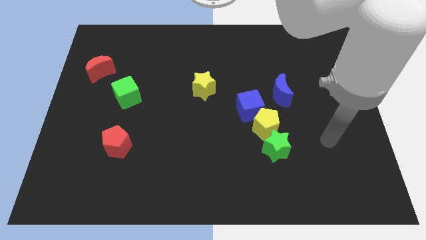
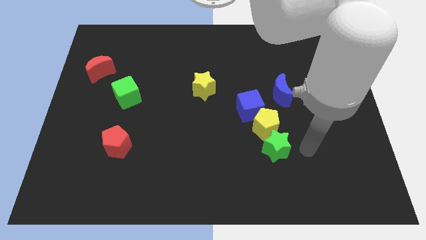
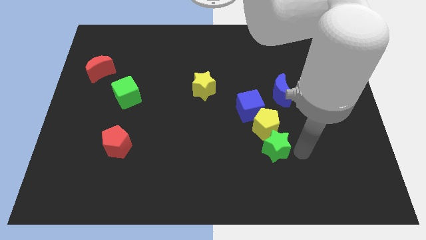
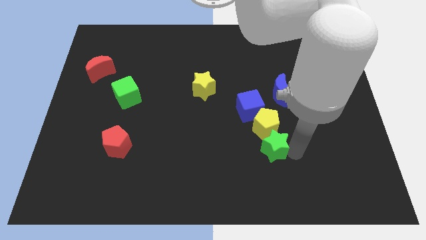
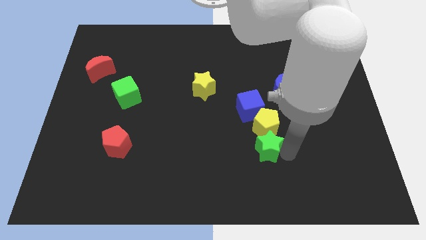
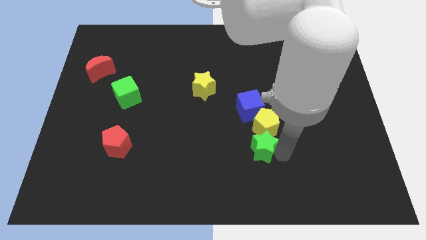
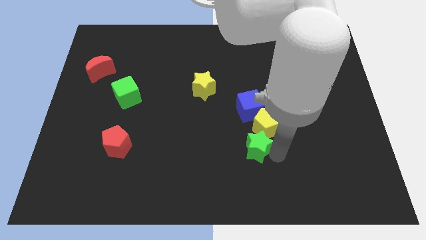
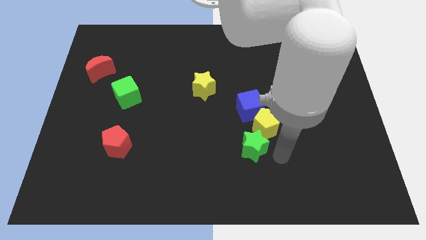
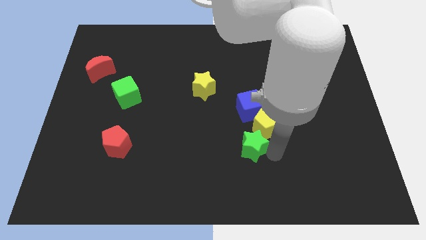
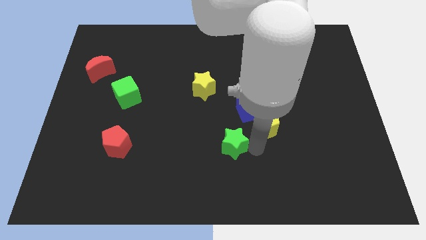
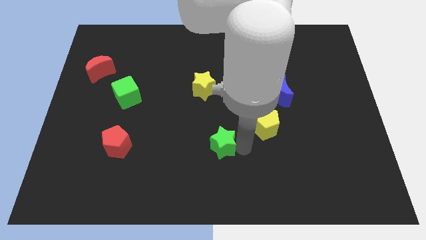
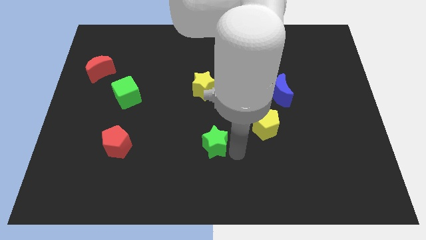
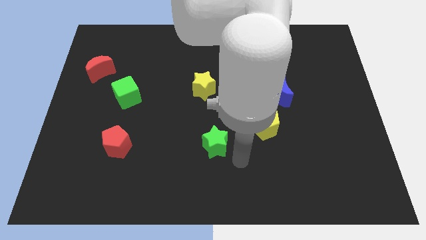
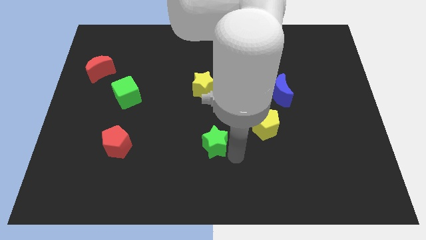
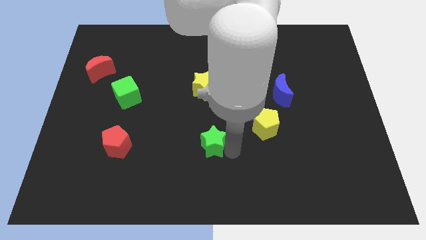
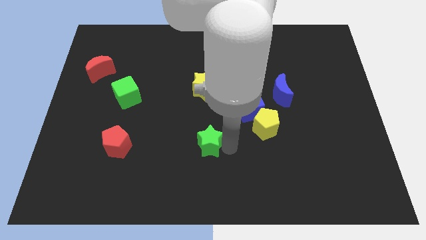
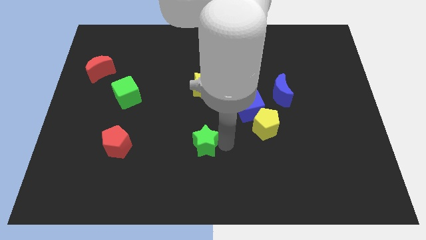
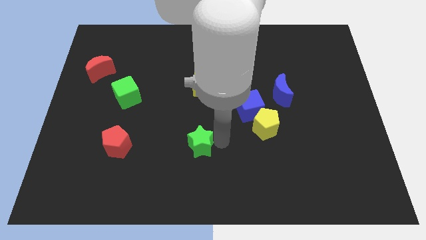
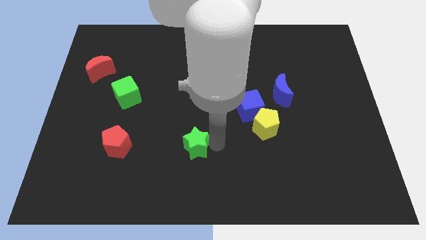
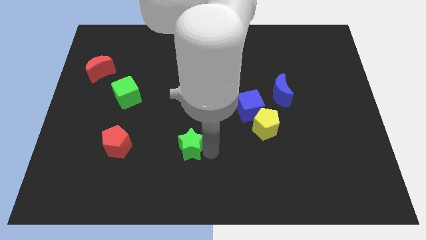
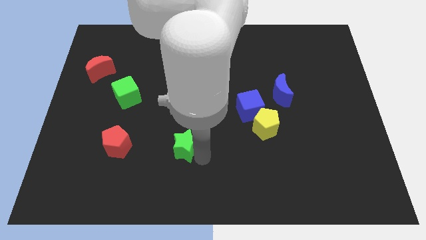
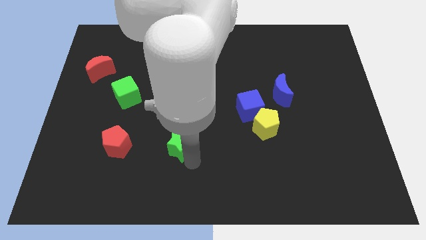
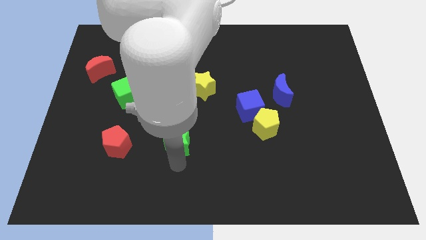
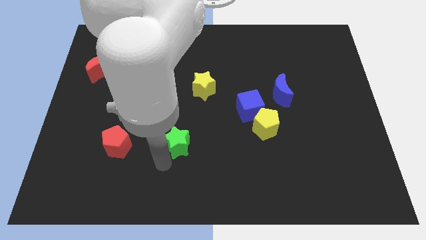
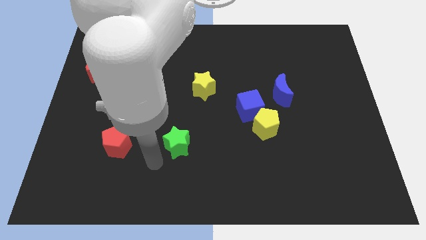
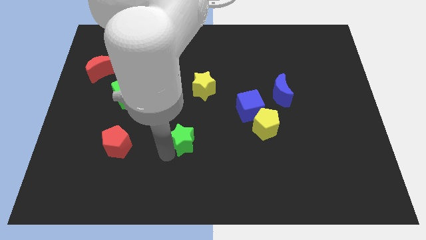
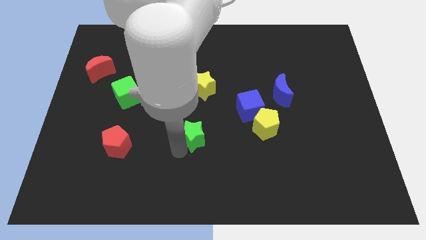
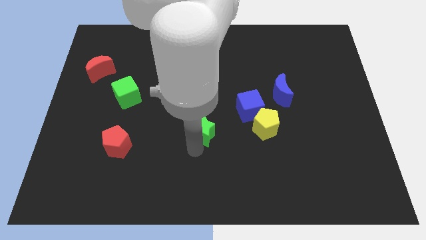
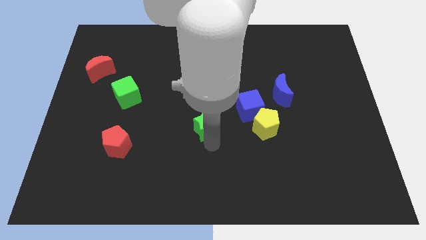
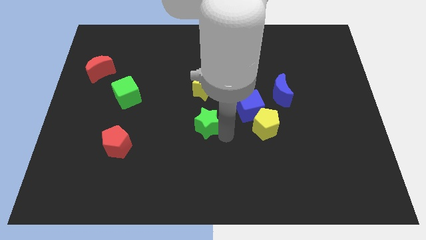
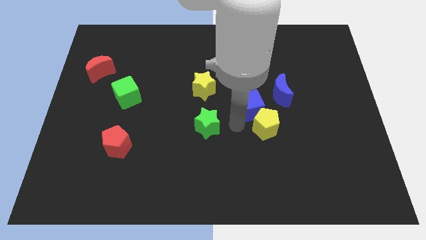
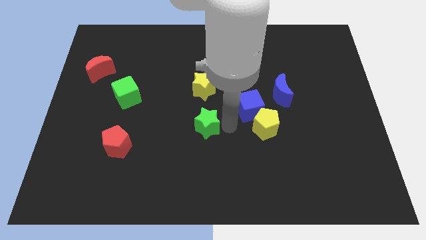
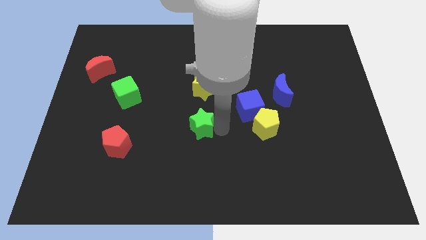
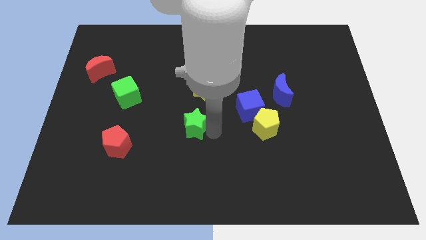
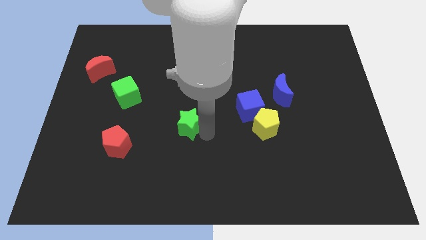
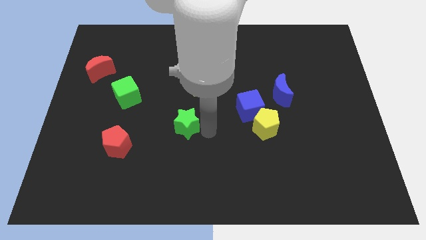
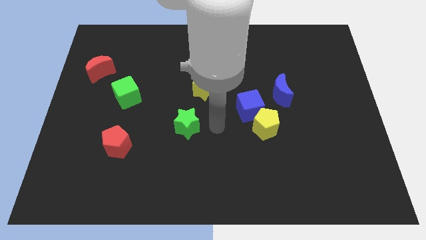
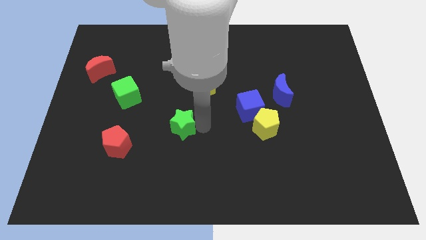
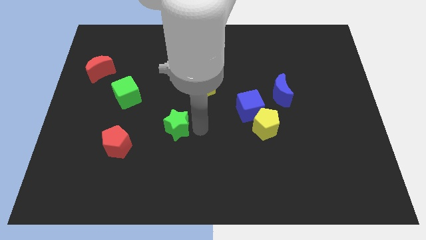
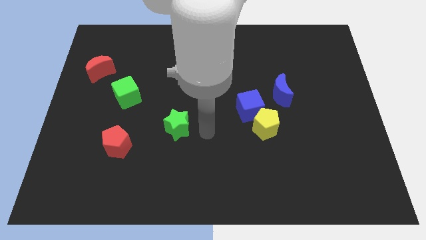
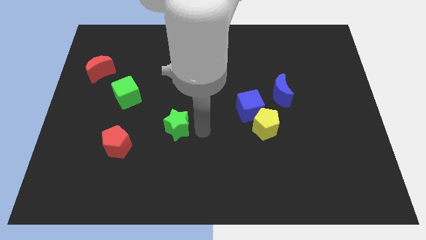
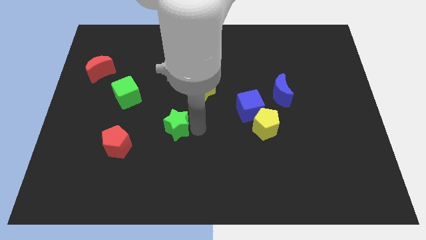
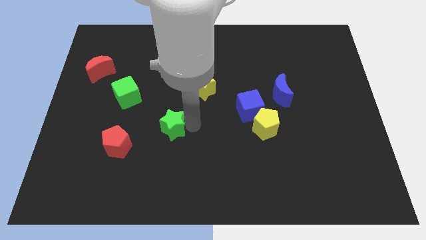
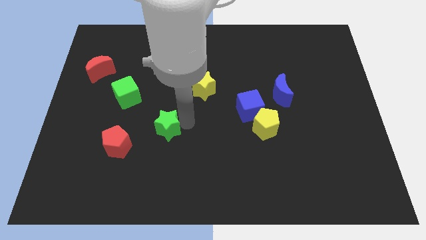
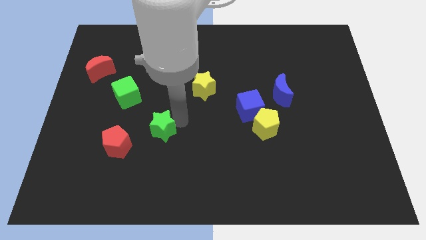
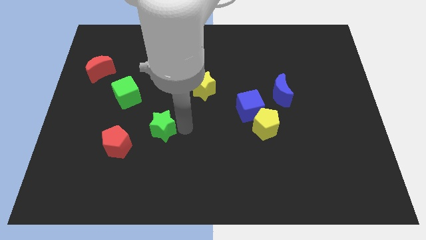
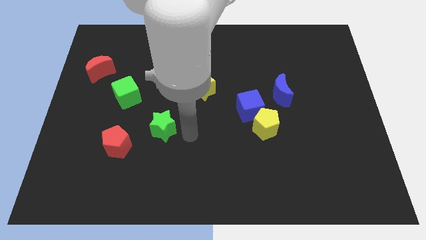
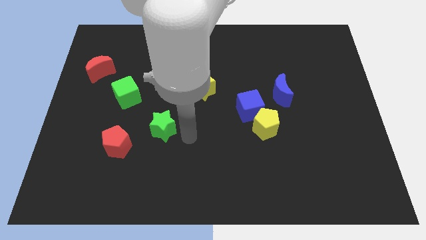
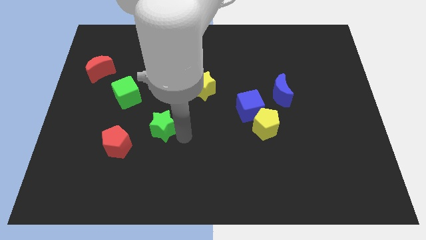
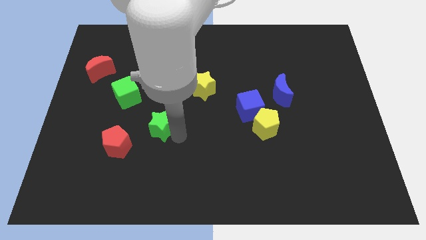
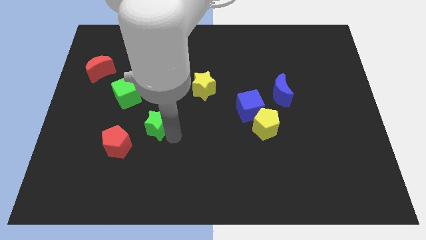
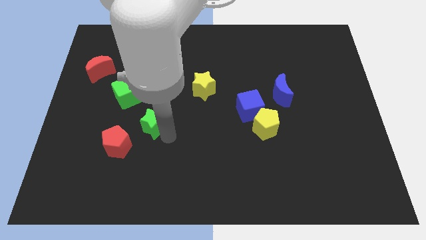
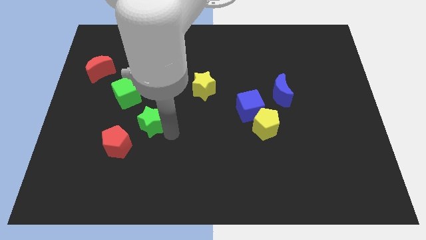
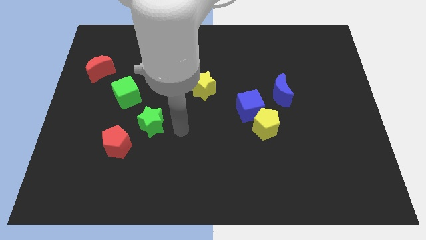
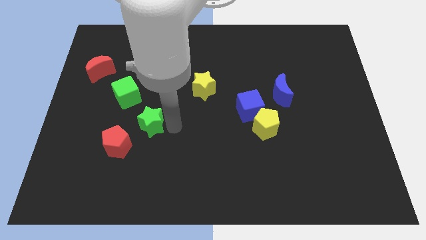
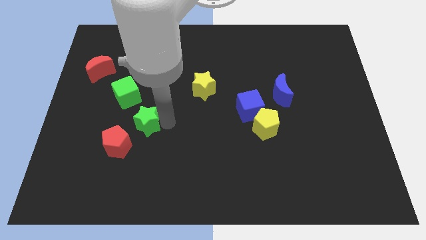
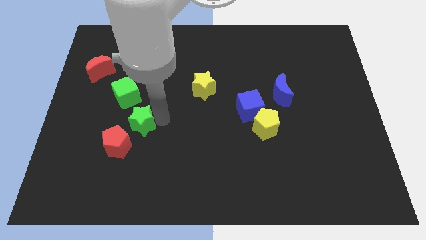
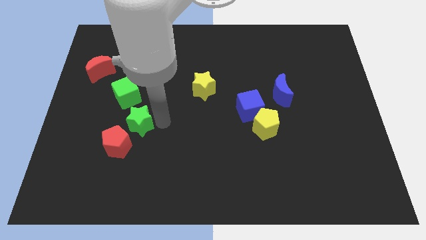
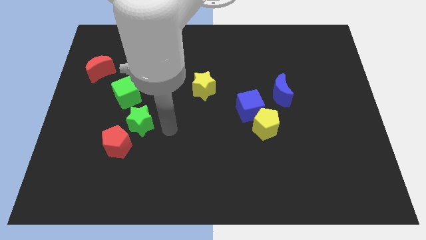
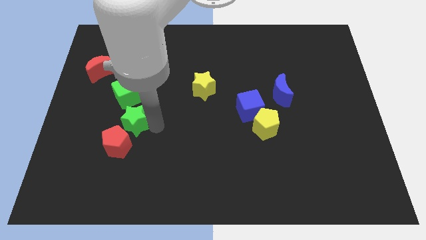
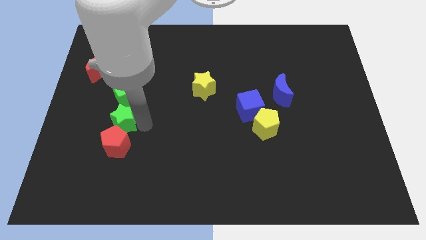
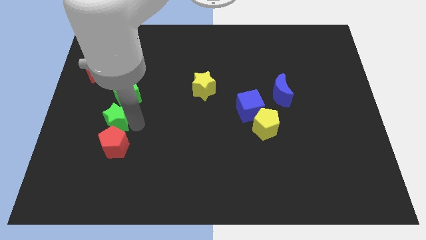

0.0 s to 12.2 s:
push the green star to the bottom left of the green cube

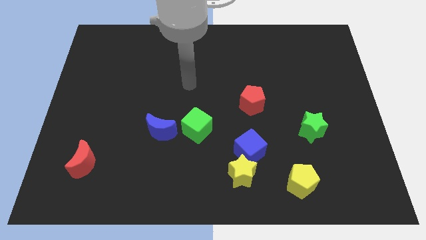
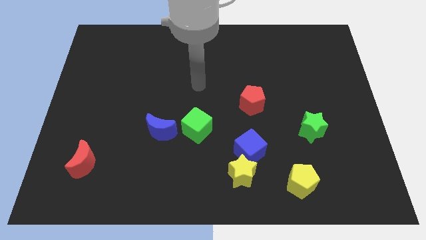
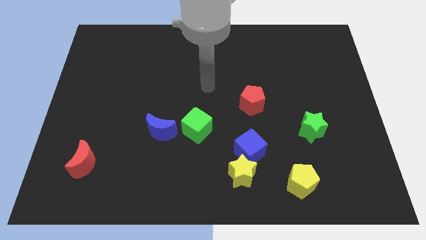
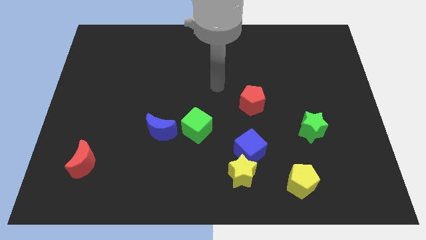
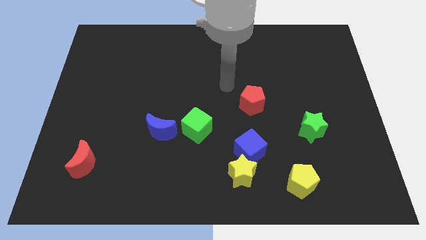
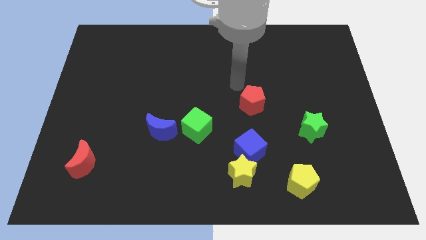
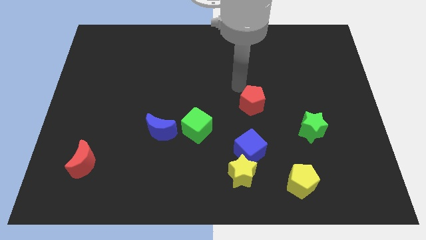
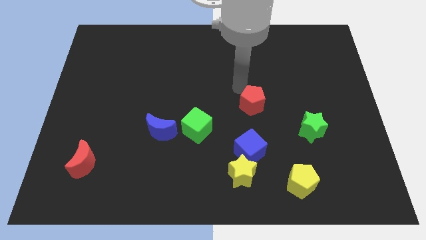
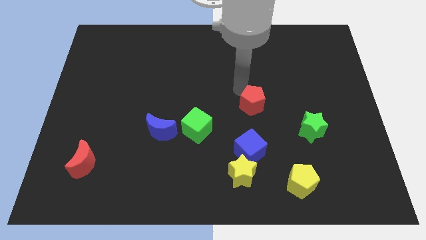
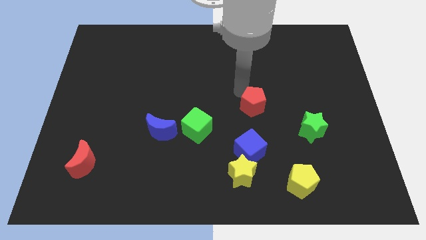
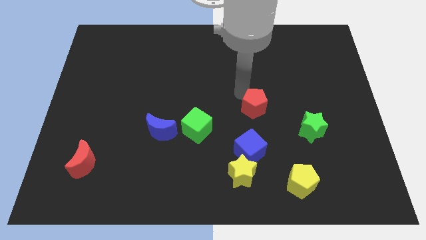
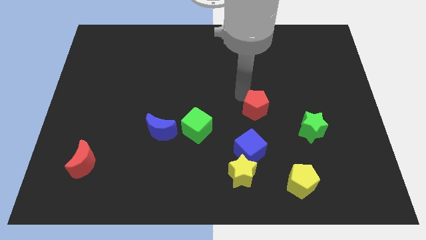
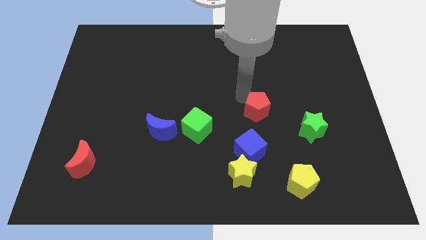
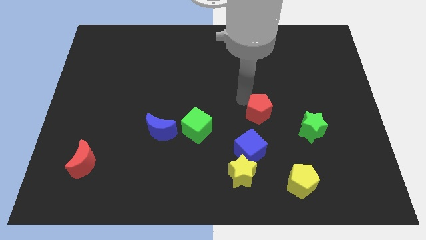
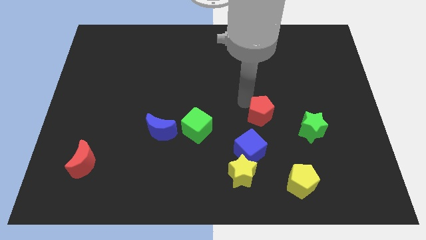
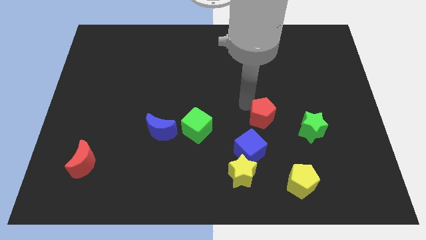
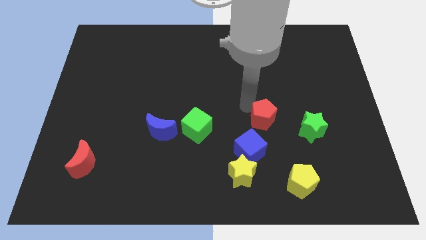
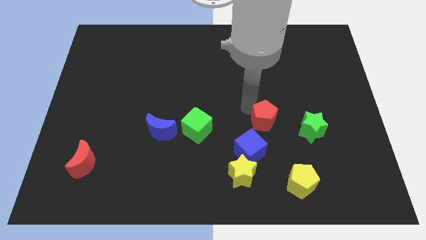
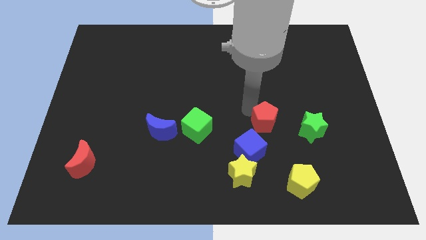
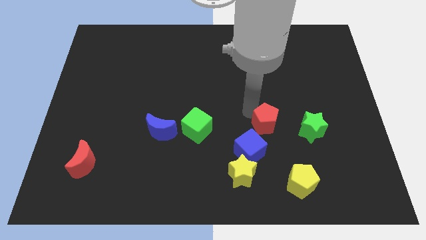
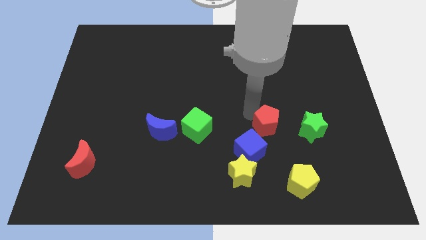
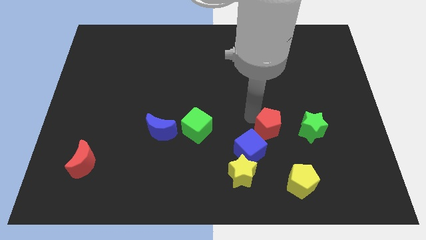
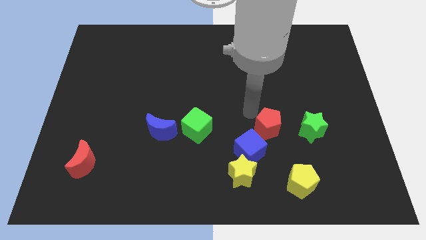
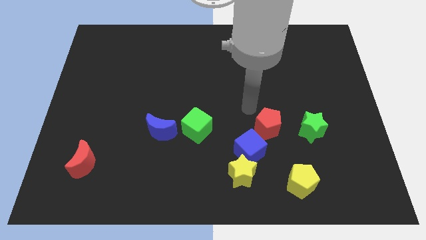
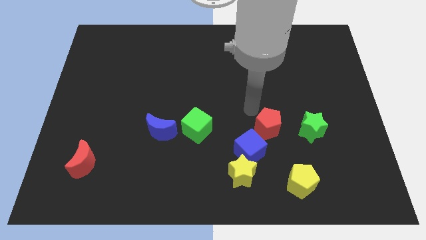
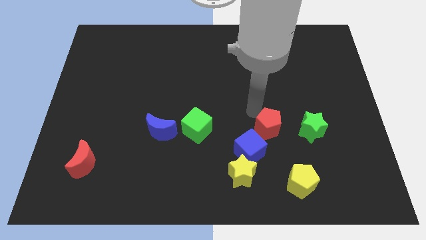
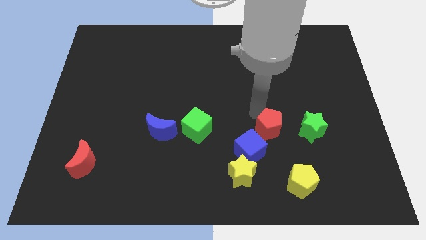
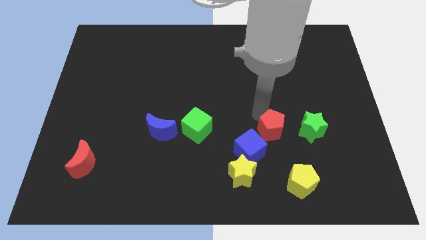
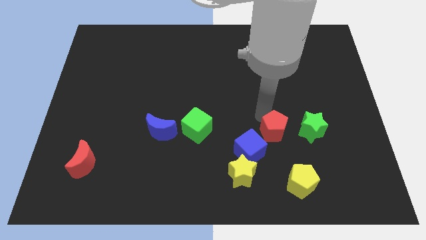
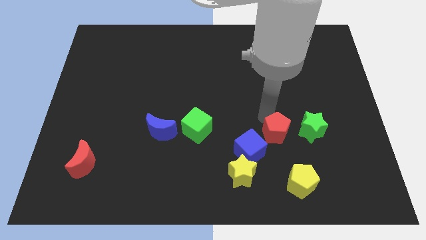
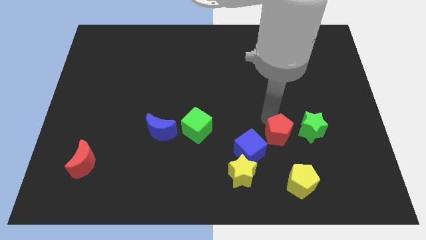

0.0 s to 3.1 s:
move the red pentagon to the bottom left side of the green star
